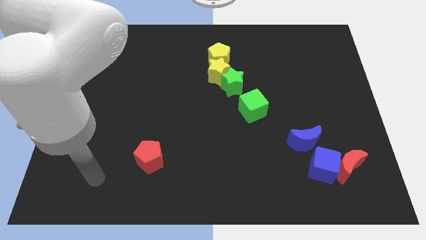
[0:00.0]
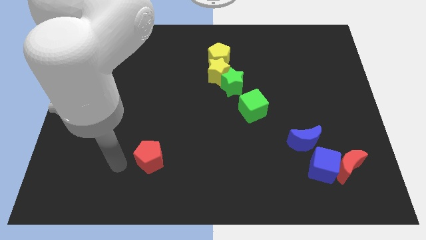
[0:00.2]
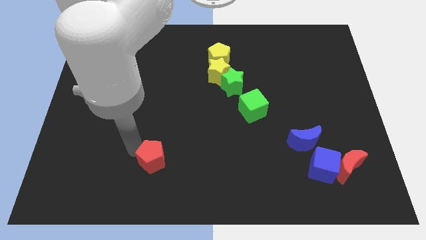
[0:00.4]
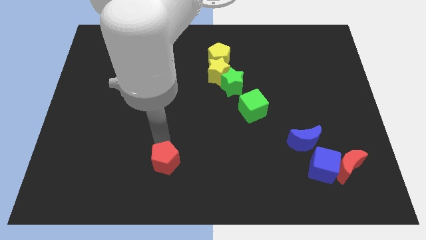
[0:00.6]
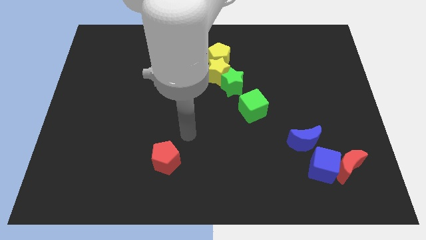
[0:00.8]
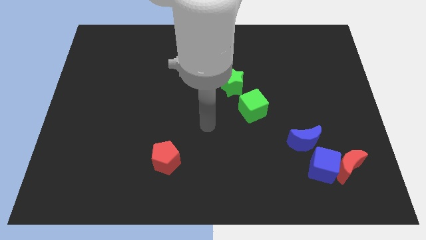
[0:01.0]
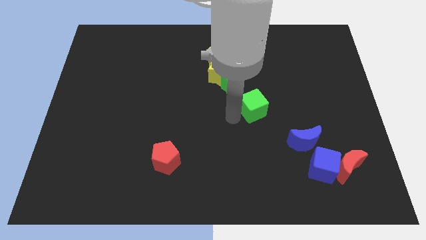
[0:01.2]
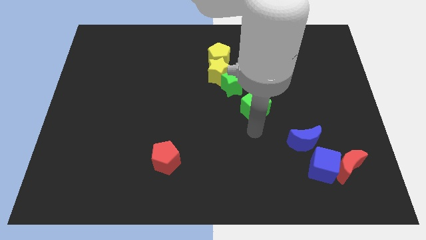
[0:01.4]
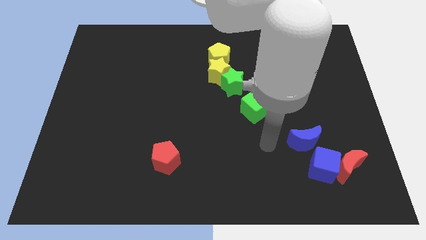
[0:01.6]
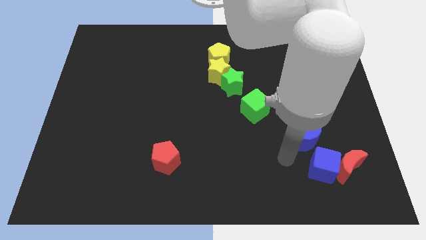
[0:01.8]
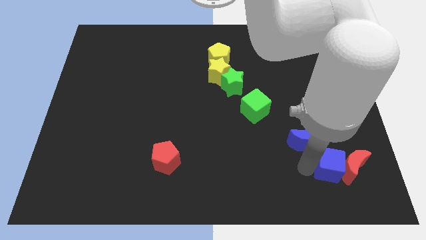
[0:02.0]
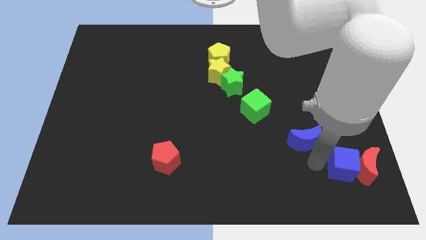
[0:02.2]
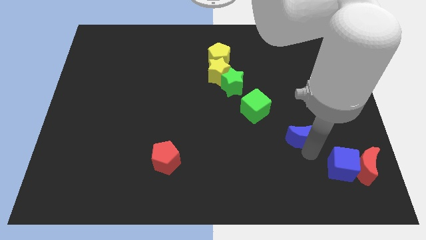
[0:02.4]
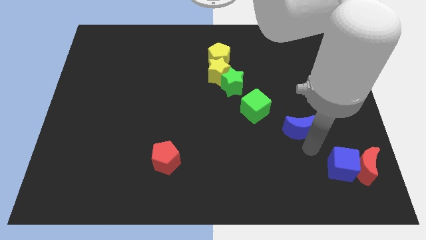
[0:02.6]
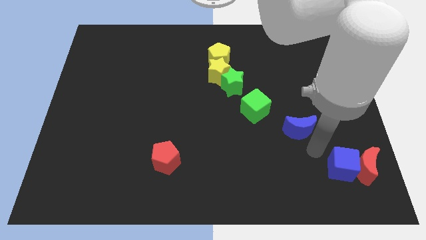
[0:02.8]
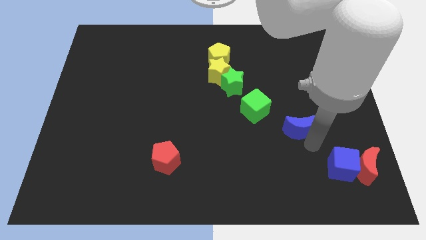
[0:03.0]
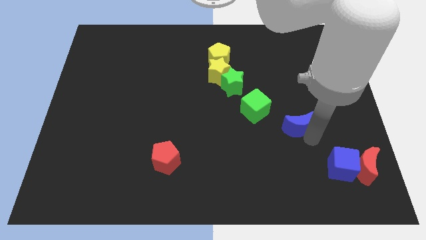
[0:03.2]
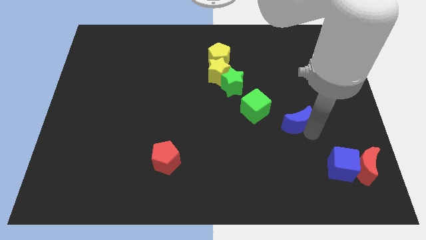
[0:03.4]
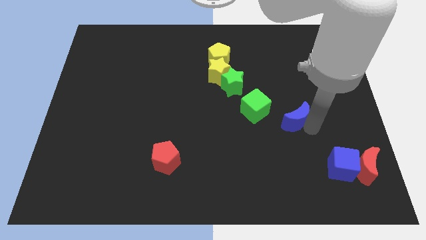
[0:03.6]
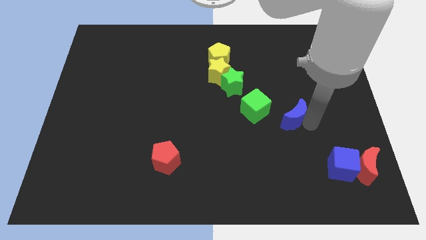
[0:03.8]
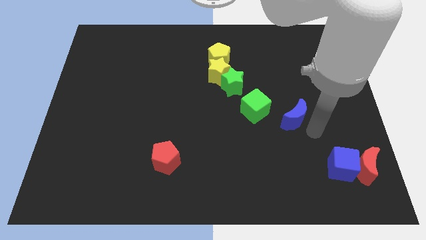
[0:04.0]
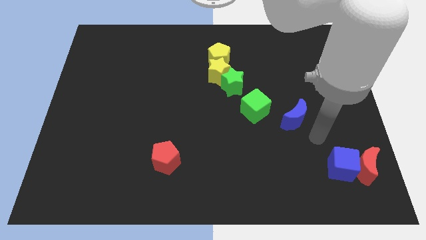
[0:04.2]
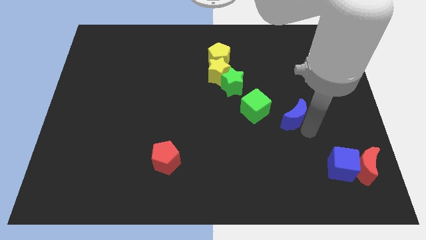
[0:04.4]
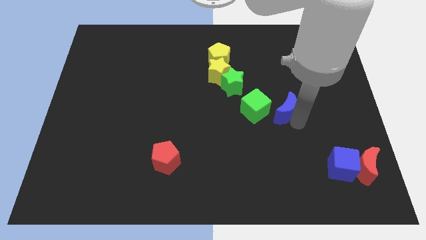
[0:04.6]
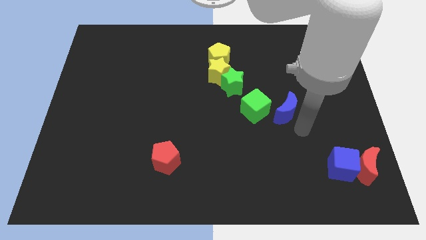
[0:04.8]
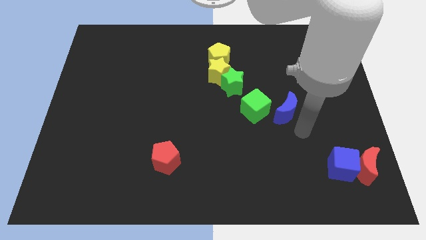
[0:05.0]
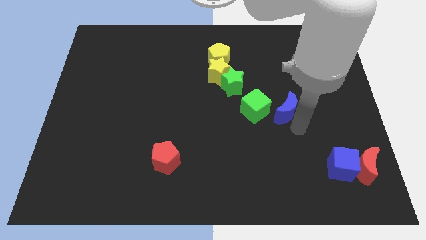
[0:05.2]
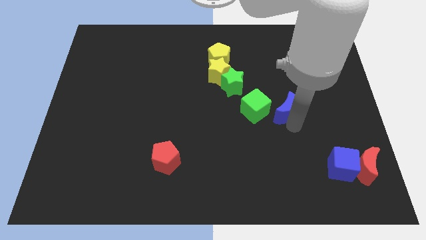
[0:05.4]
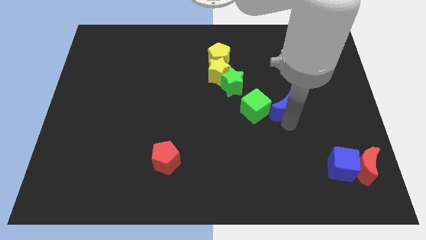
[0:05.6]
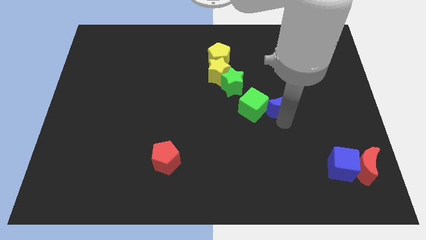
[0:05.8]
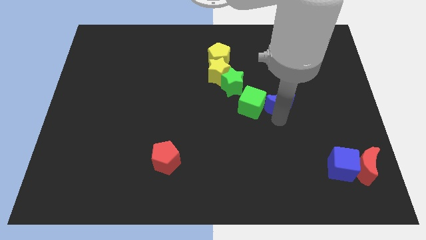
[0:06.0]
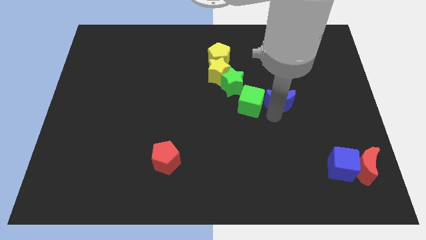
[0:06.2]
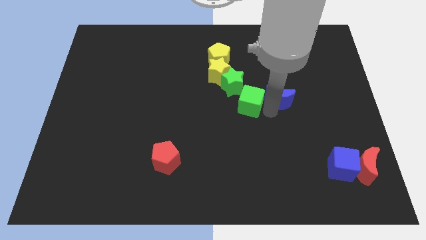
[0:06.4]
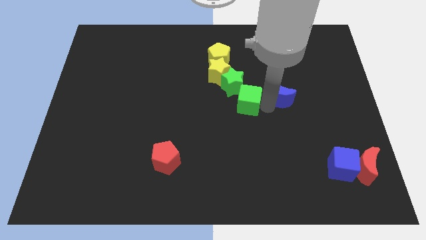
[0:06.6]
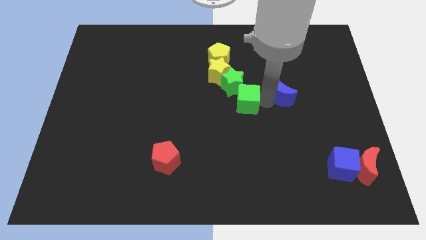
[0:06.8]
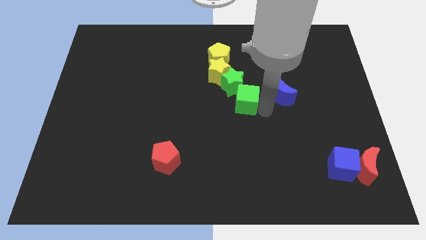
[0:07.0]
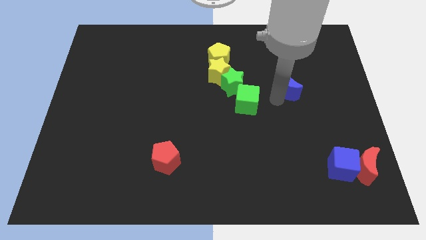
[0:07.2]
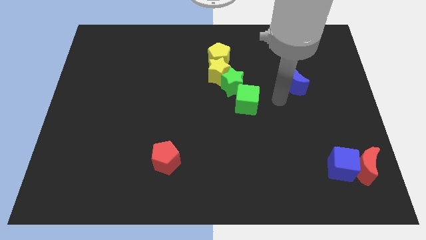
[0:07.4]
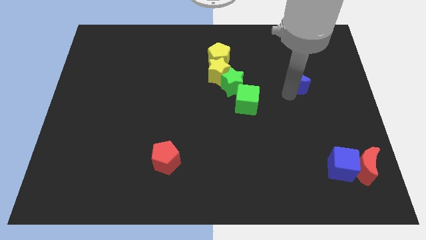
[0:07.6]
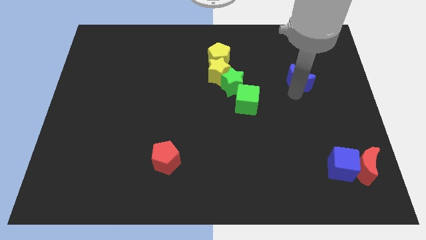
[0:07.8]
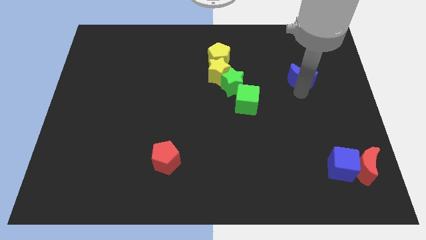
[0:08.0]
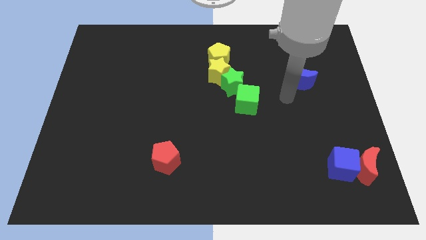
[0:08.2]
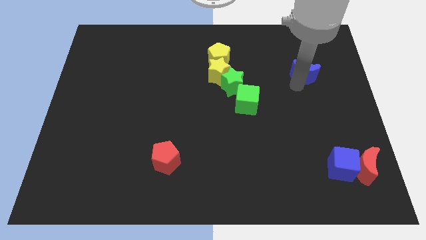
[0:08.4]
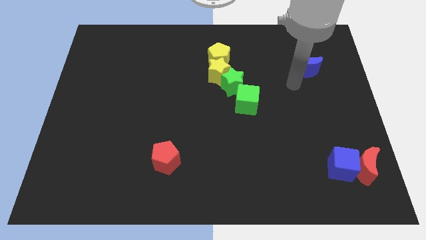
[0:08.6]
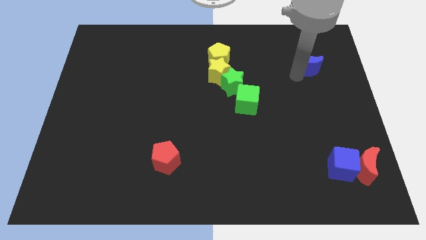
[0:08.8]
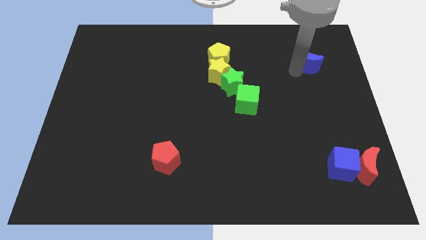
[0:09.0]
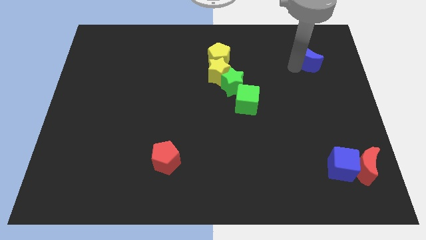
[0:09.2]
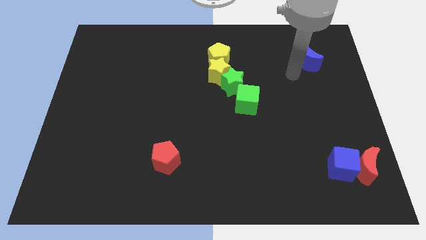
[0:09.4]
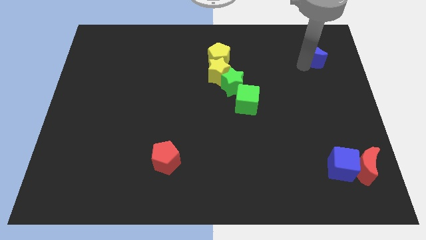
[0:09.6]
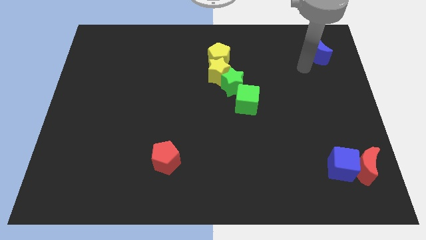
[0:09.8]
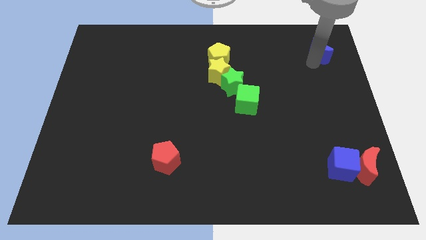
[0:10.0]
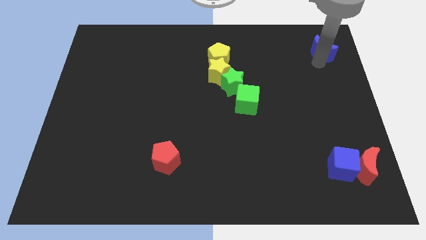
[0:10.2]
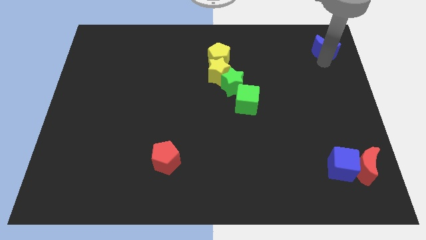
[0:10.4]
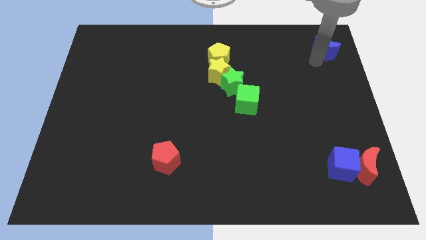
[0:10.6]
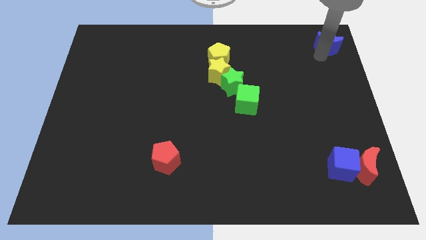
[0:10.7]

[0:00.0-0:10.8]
move the blue moon to the upper right corner

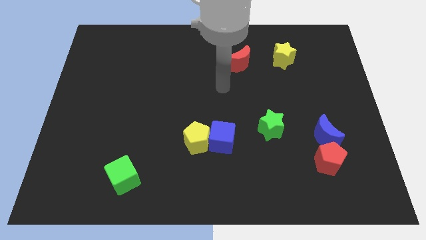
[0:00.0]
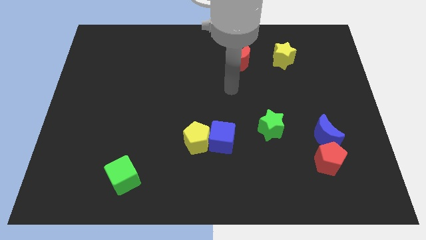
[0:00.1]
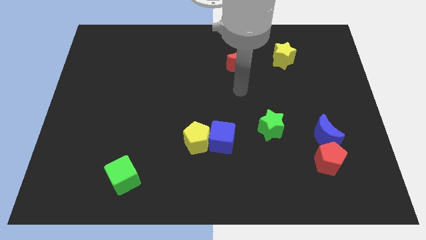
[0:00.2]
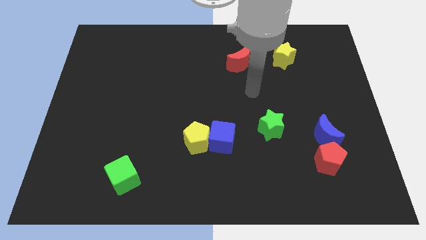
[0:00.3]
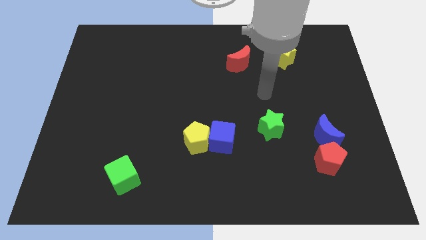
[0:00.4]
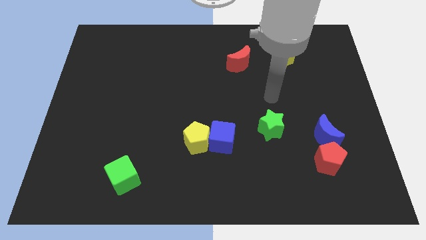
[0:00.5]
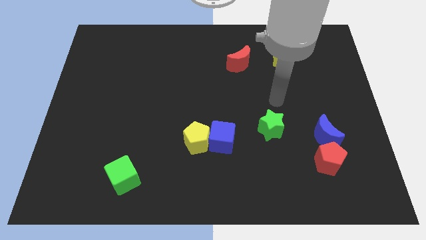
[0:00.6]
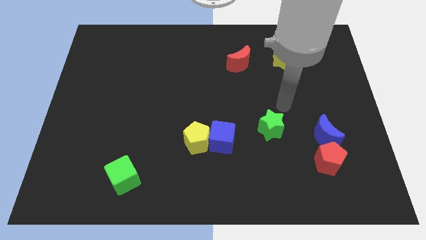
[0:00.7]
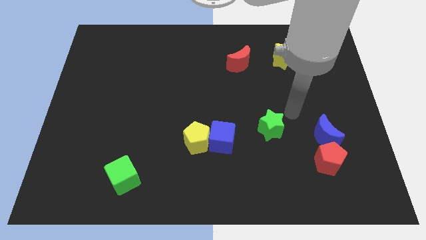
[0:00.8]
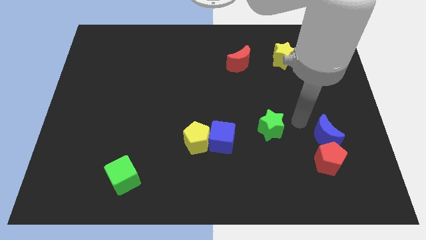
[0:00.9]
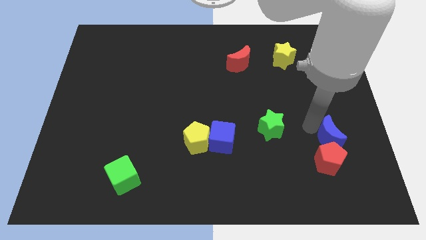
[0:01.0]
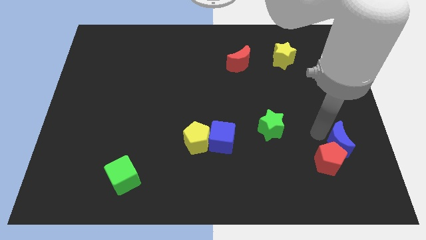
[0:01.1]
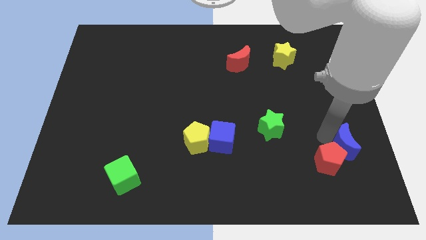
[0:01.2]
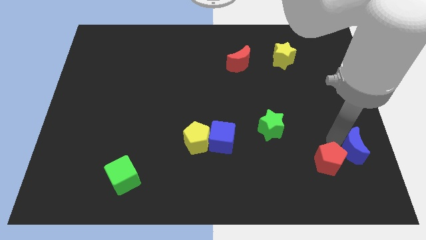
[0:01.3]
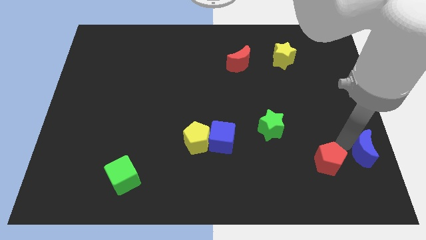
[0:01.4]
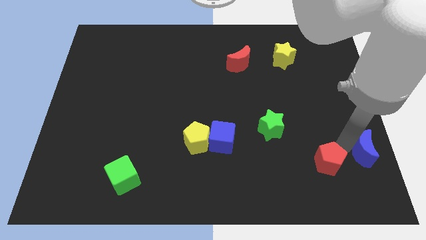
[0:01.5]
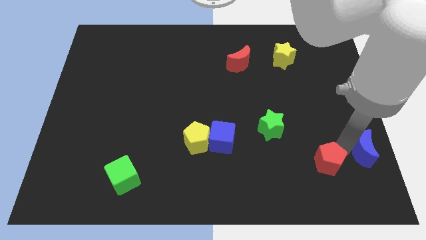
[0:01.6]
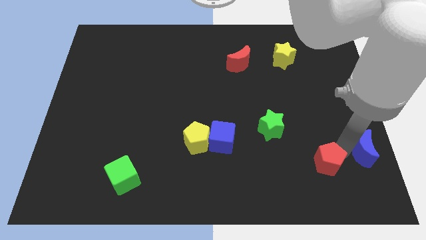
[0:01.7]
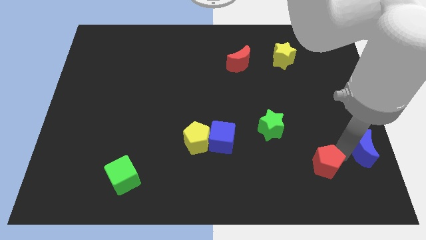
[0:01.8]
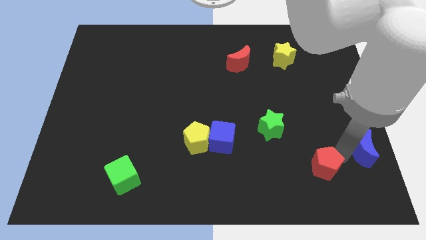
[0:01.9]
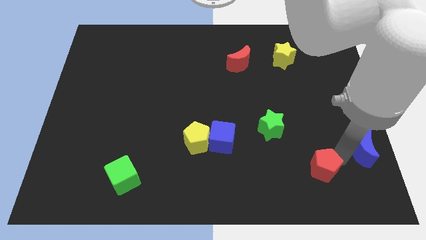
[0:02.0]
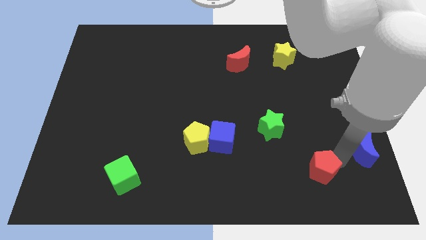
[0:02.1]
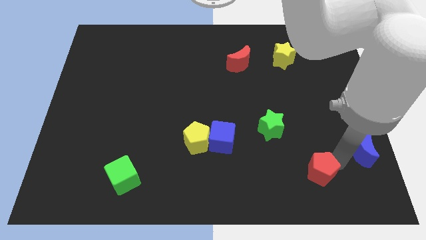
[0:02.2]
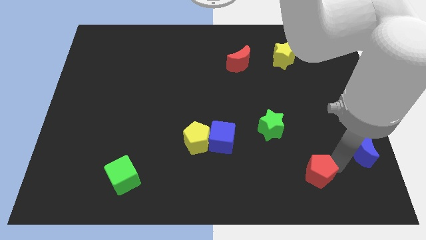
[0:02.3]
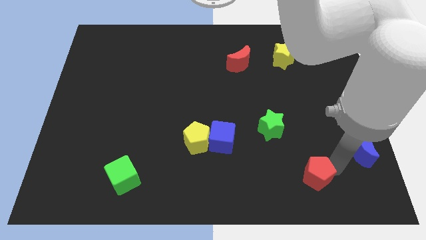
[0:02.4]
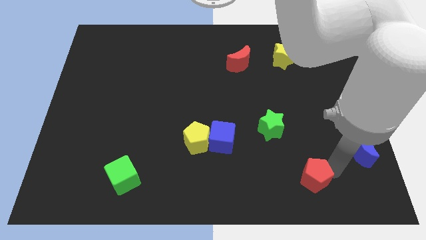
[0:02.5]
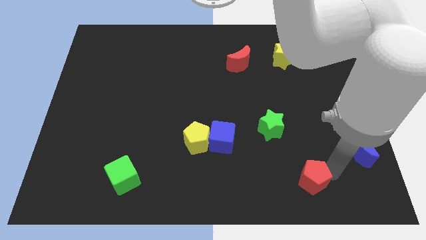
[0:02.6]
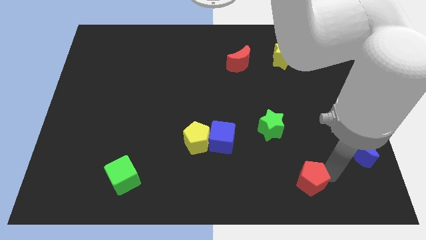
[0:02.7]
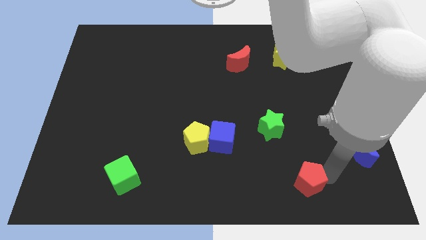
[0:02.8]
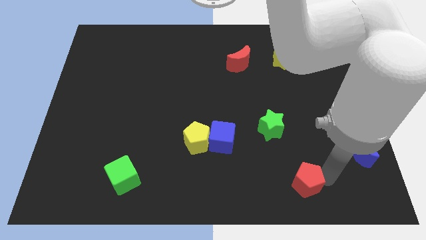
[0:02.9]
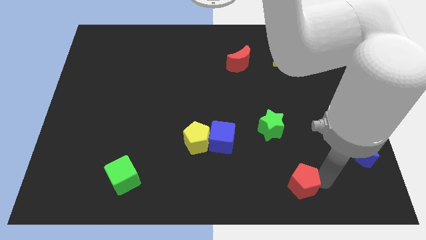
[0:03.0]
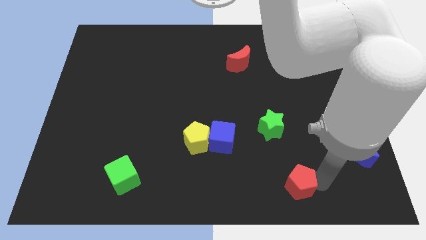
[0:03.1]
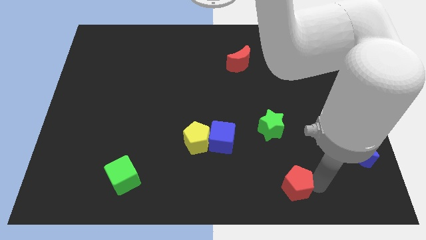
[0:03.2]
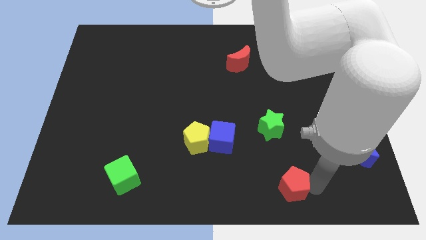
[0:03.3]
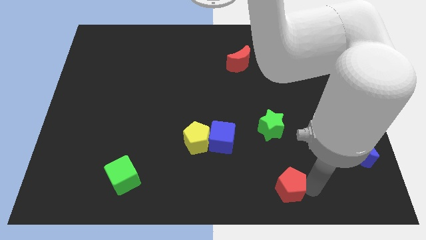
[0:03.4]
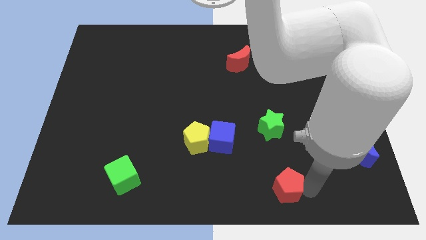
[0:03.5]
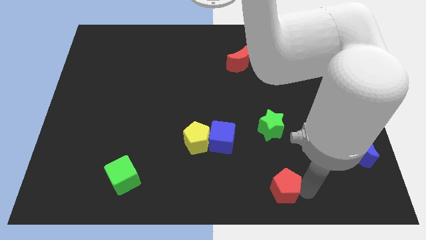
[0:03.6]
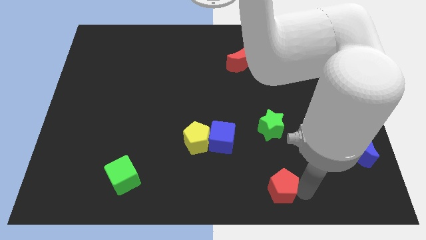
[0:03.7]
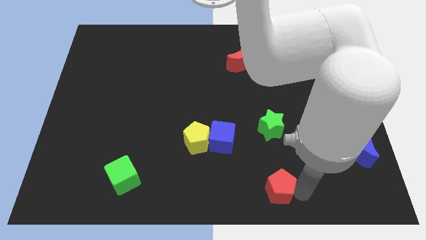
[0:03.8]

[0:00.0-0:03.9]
move the red pentagon to the bottom side
